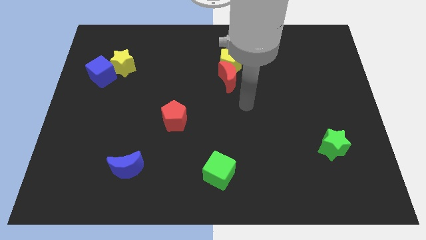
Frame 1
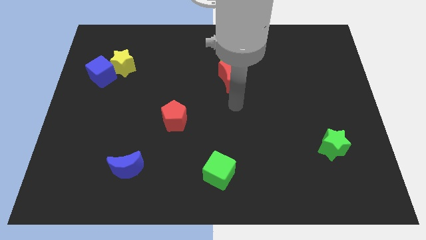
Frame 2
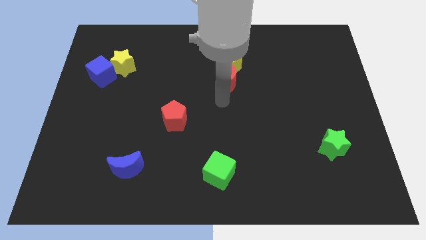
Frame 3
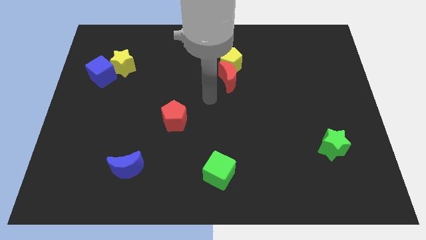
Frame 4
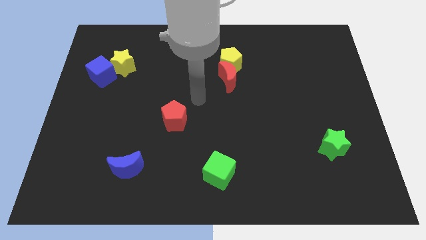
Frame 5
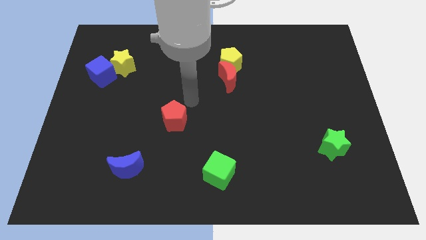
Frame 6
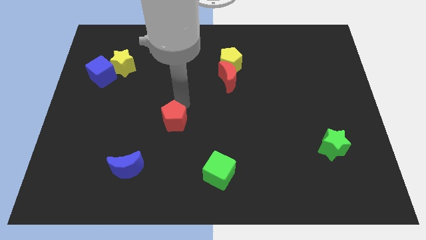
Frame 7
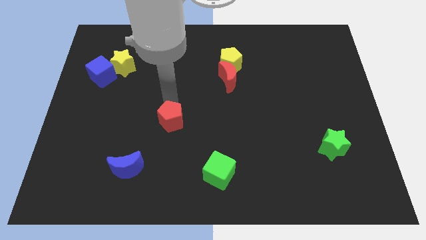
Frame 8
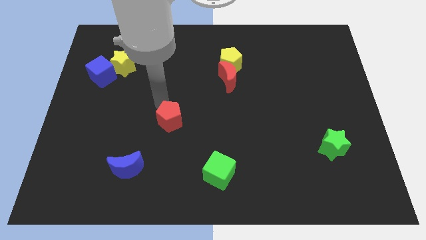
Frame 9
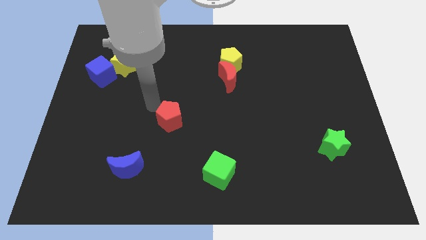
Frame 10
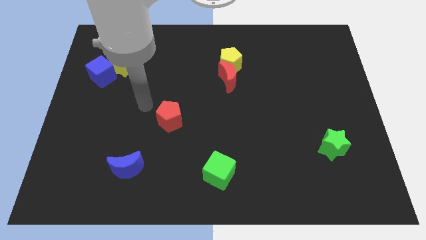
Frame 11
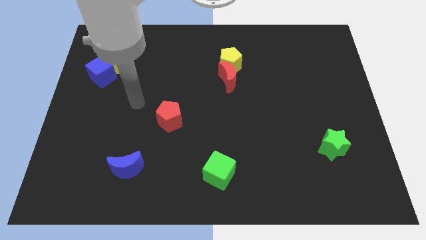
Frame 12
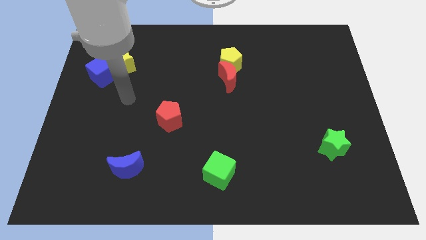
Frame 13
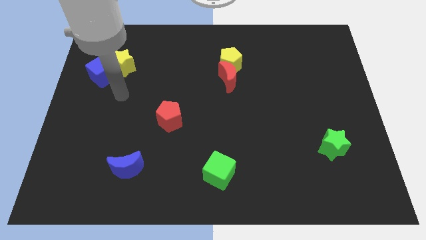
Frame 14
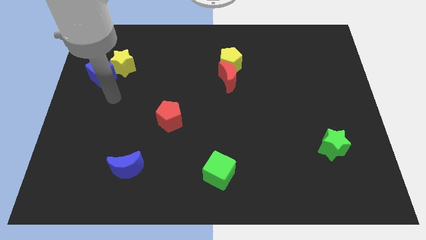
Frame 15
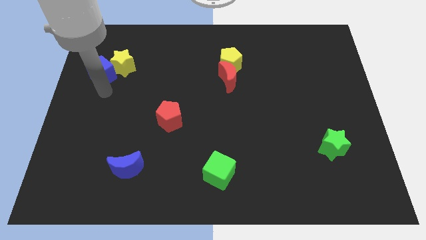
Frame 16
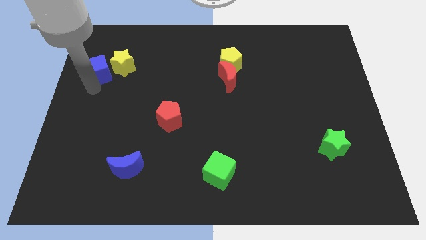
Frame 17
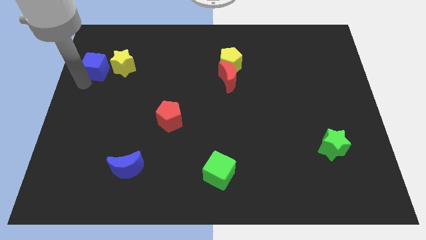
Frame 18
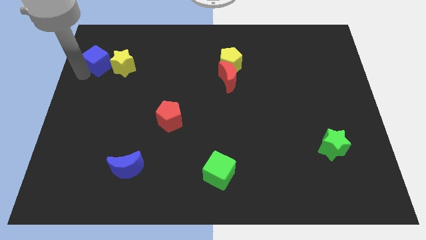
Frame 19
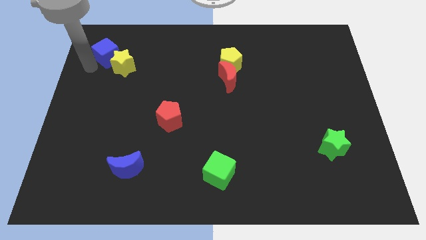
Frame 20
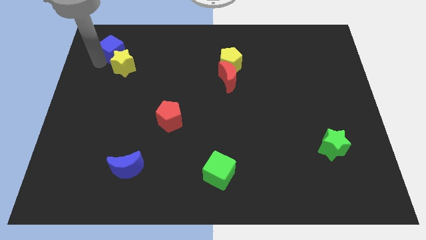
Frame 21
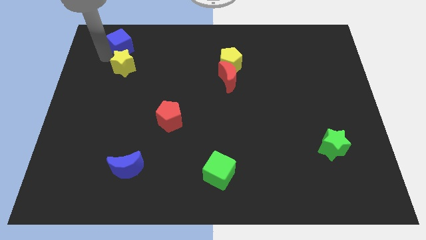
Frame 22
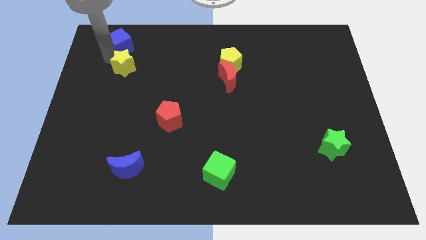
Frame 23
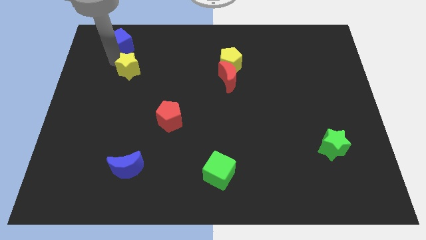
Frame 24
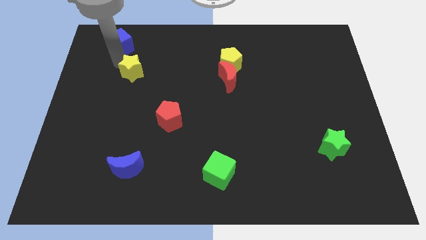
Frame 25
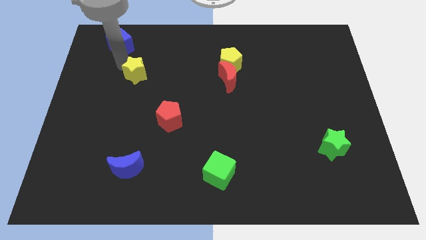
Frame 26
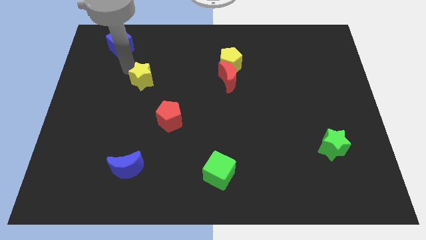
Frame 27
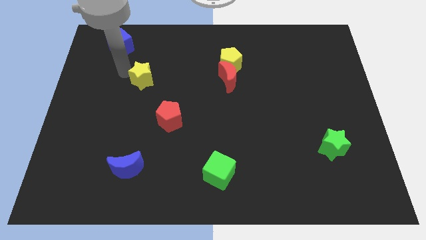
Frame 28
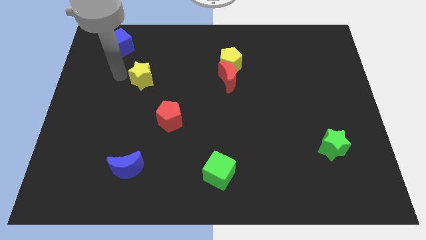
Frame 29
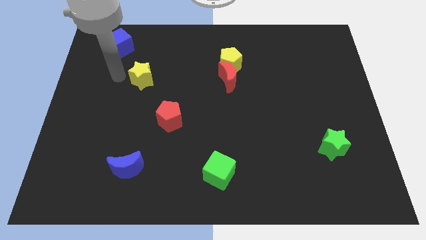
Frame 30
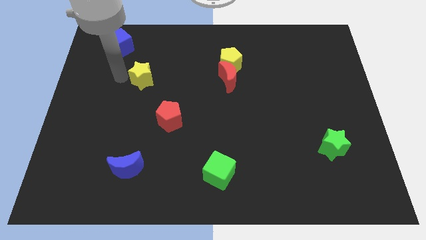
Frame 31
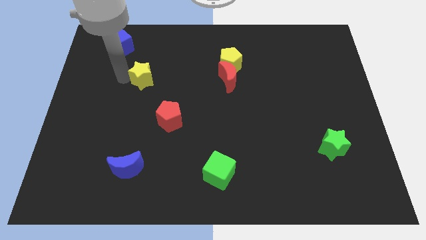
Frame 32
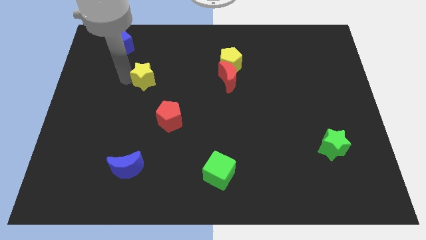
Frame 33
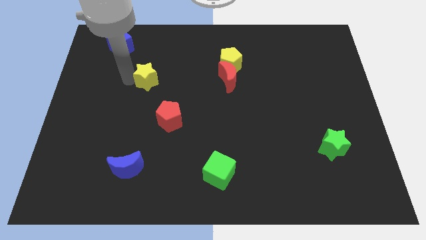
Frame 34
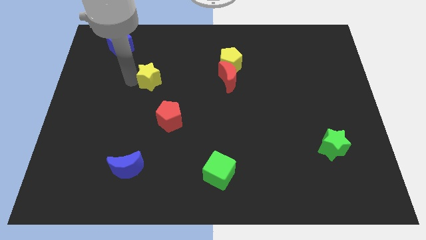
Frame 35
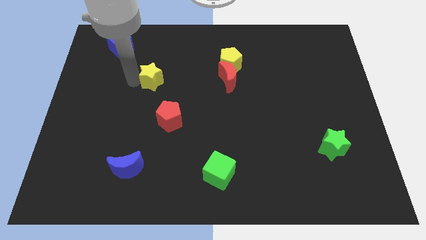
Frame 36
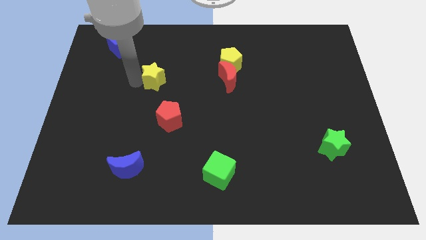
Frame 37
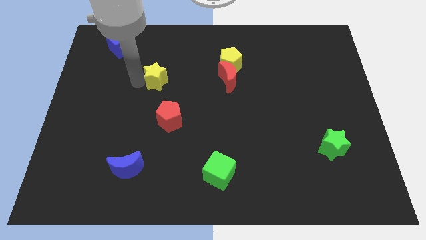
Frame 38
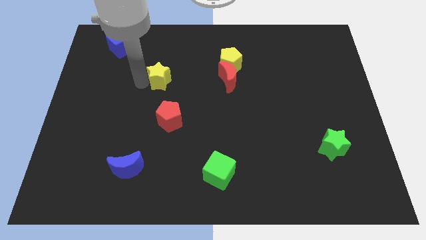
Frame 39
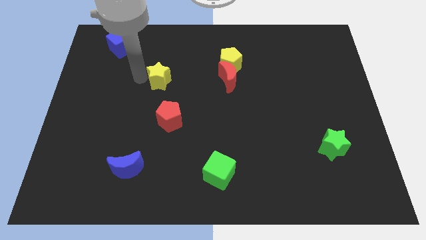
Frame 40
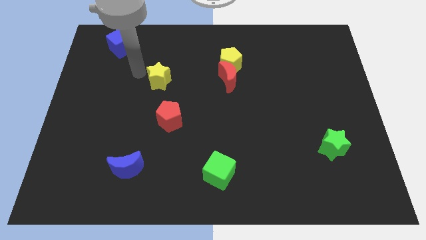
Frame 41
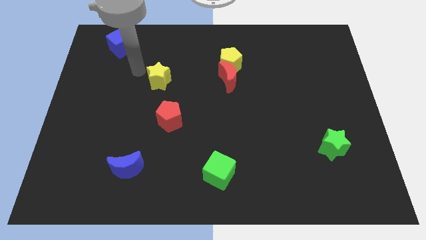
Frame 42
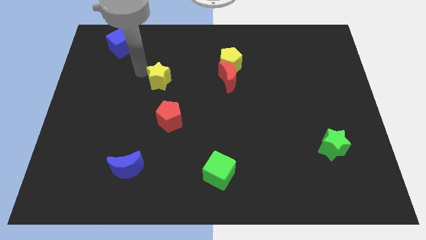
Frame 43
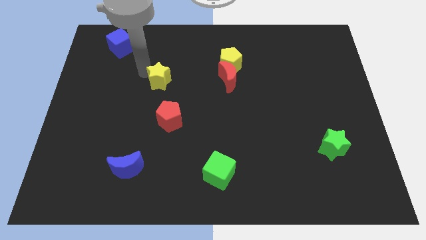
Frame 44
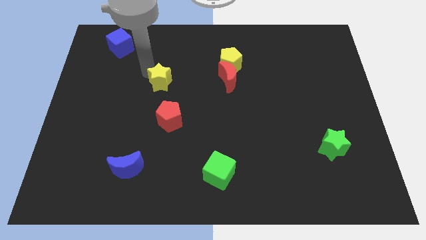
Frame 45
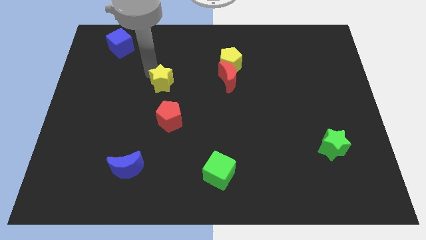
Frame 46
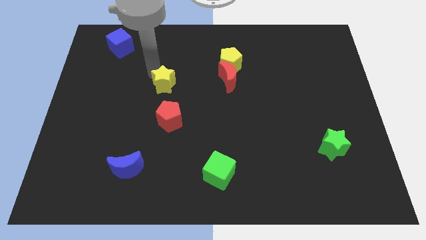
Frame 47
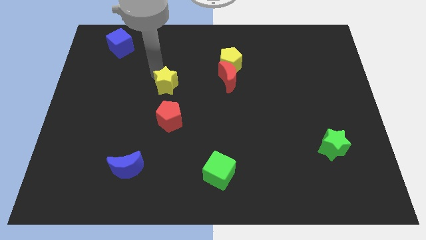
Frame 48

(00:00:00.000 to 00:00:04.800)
move the yellow star to the middle

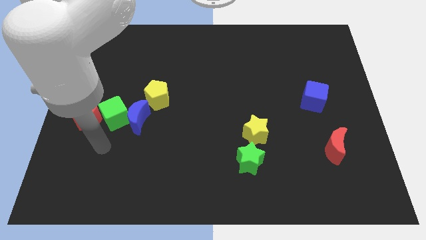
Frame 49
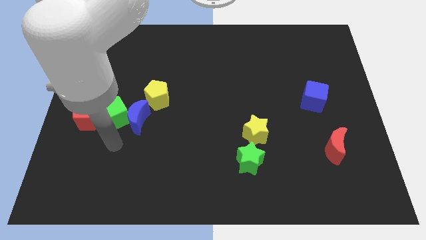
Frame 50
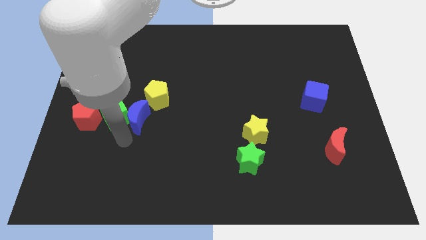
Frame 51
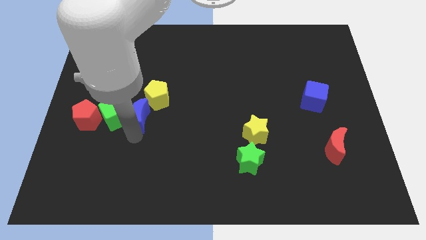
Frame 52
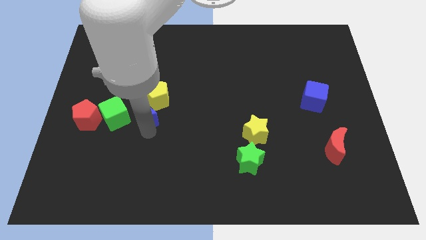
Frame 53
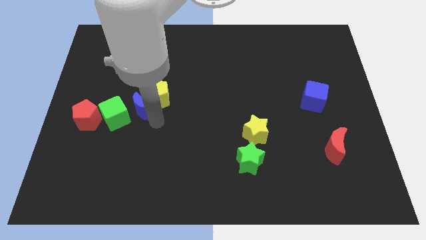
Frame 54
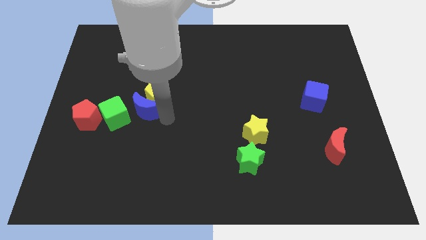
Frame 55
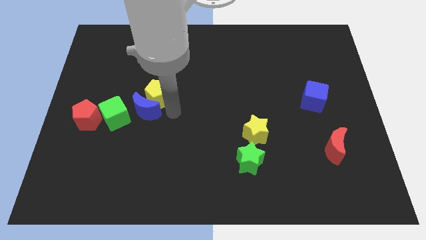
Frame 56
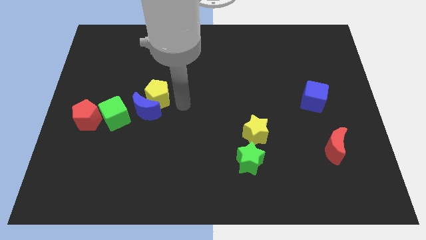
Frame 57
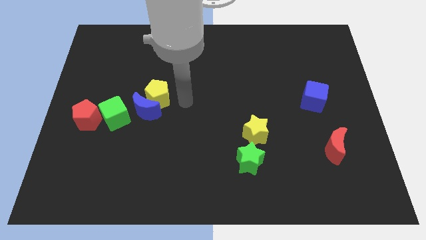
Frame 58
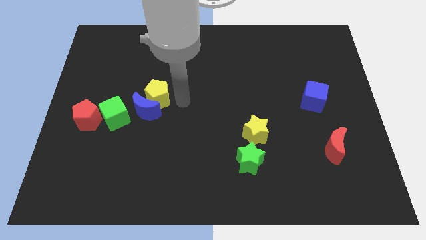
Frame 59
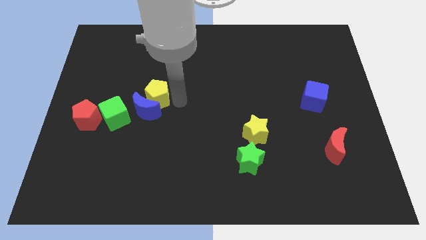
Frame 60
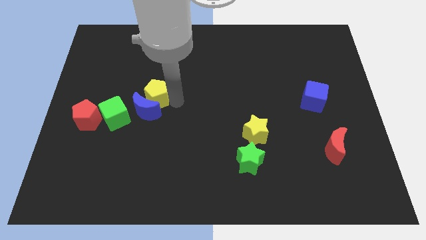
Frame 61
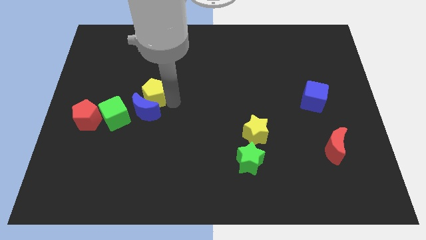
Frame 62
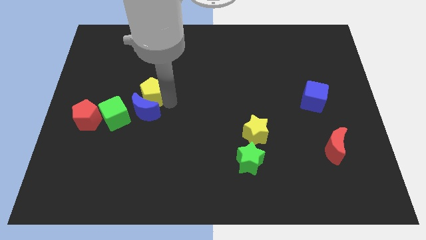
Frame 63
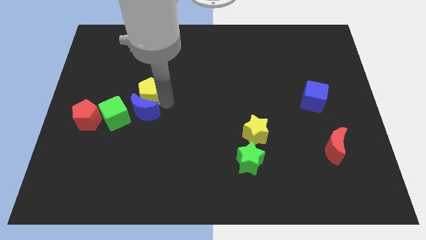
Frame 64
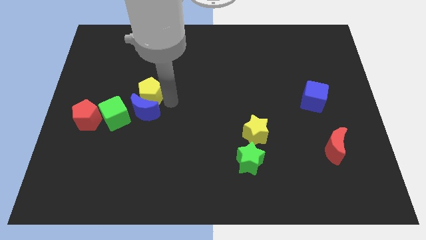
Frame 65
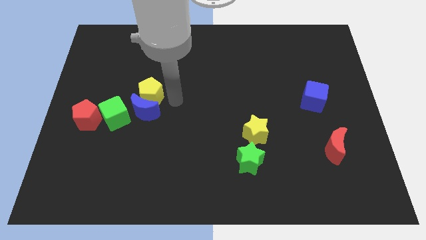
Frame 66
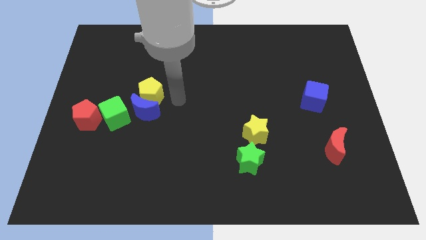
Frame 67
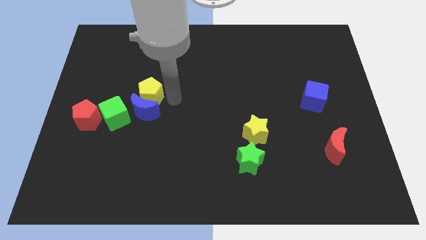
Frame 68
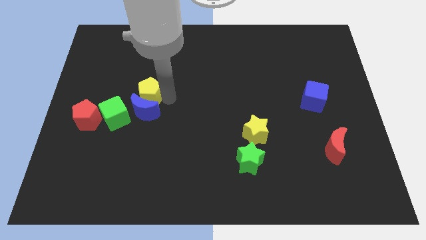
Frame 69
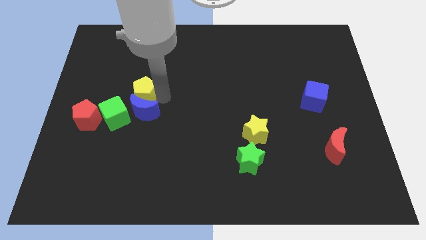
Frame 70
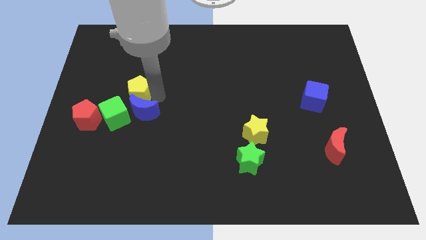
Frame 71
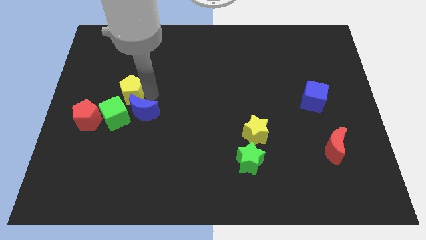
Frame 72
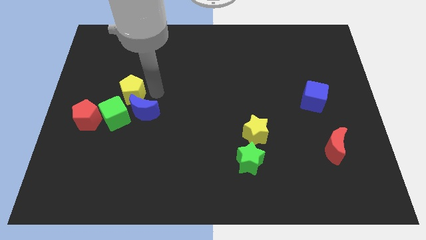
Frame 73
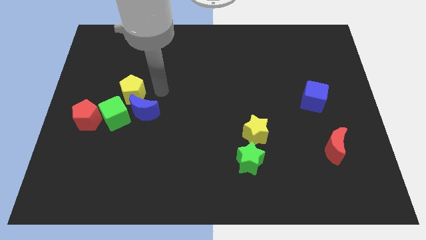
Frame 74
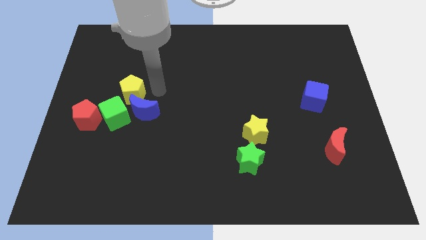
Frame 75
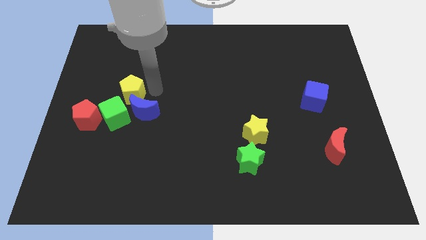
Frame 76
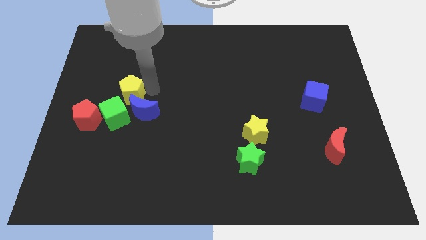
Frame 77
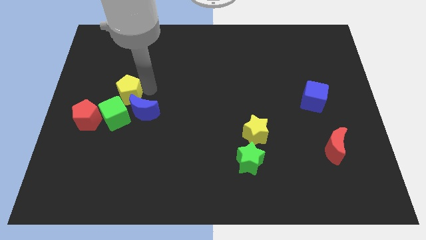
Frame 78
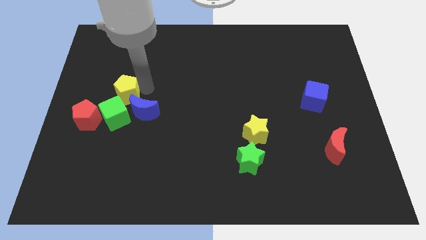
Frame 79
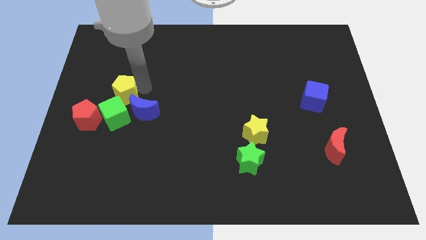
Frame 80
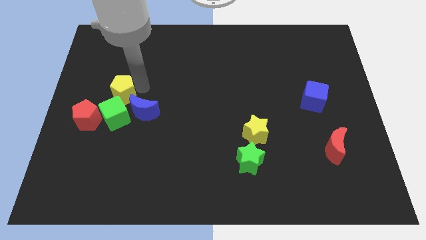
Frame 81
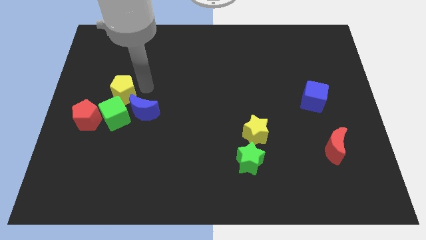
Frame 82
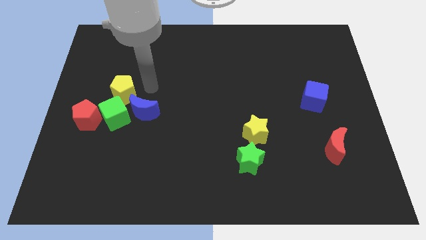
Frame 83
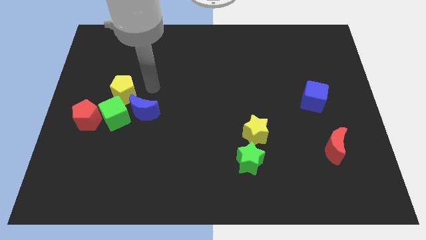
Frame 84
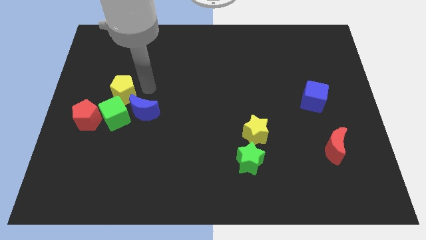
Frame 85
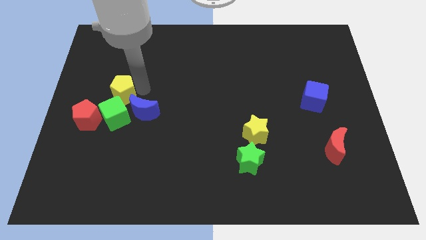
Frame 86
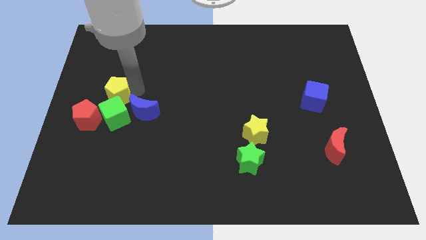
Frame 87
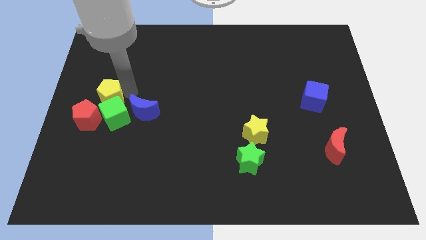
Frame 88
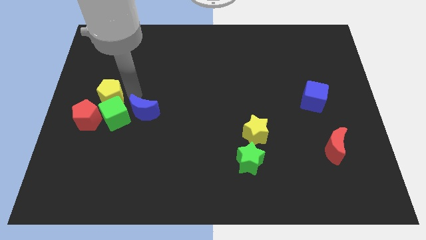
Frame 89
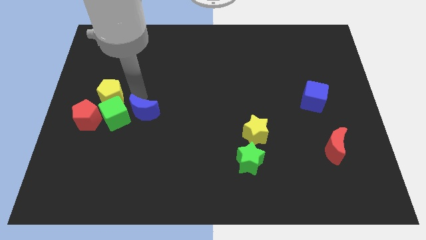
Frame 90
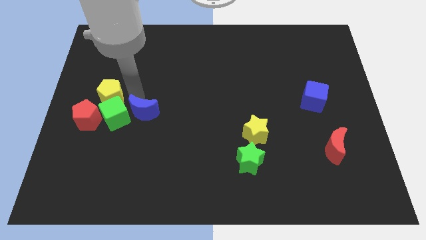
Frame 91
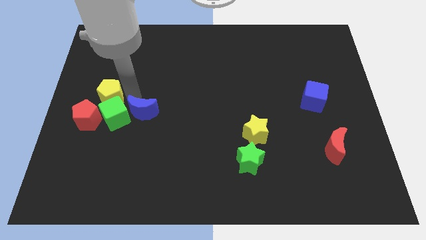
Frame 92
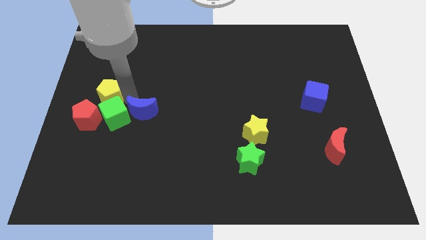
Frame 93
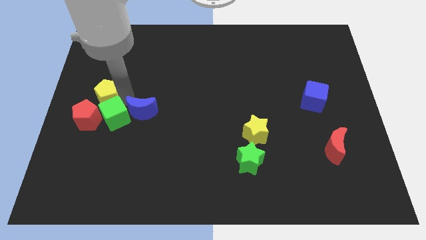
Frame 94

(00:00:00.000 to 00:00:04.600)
put the yellow pentagon to the left side
